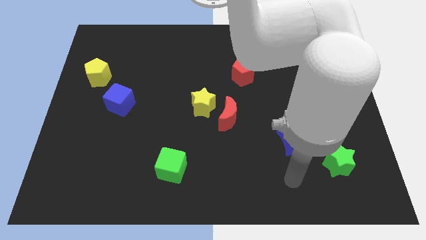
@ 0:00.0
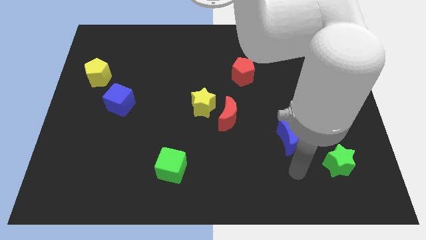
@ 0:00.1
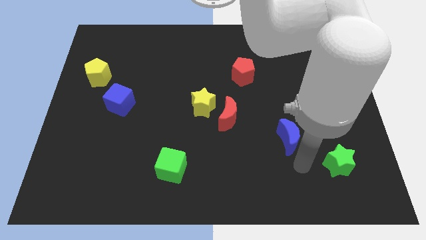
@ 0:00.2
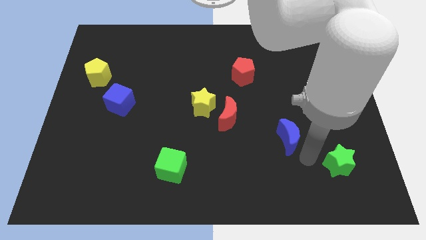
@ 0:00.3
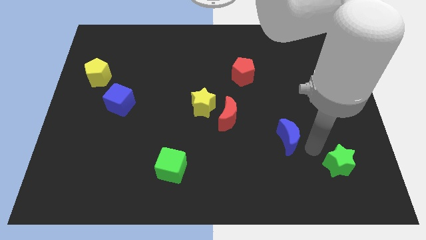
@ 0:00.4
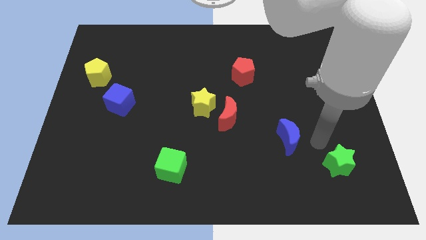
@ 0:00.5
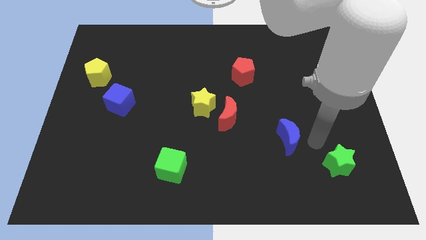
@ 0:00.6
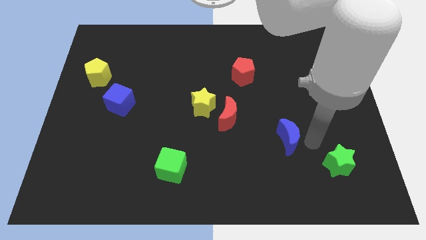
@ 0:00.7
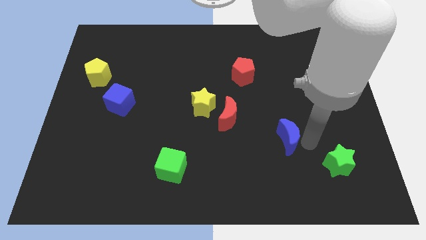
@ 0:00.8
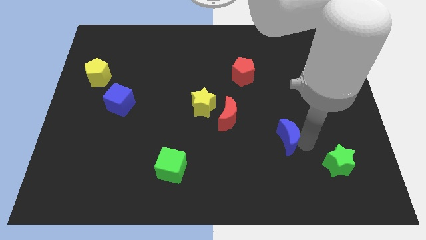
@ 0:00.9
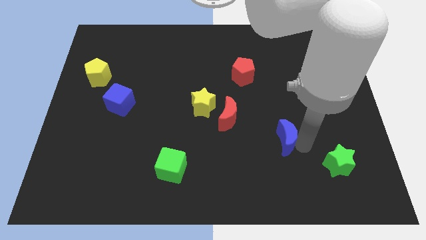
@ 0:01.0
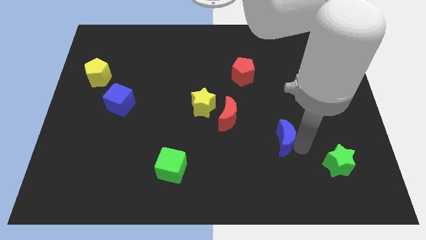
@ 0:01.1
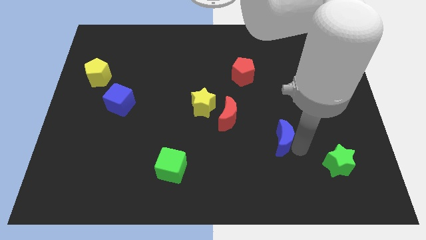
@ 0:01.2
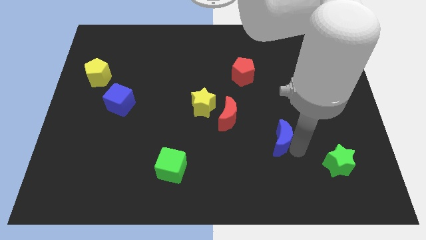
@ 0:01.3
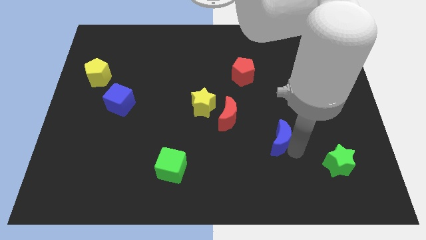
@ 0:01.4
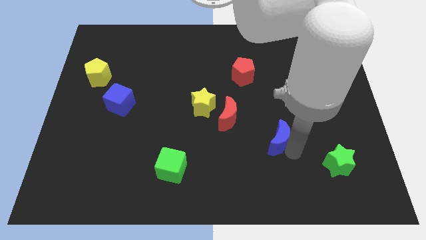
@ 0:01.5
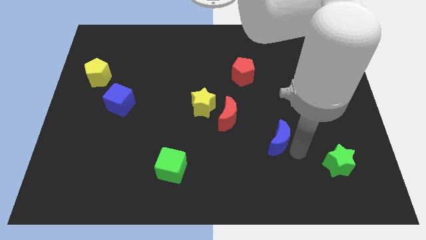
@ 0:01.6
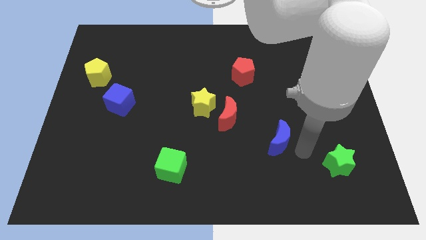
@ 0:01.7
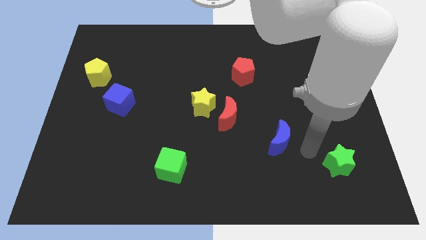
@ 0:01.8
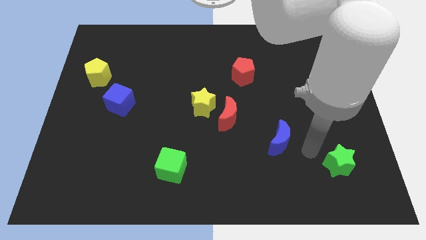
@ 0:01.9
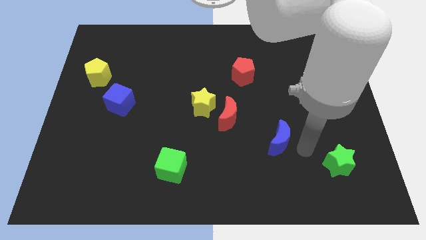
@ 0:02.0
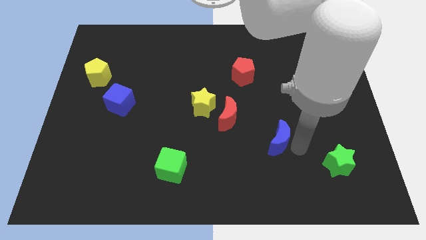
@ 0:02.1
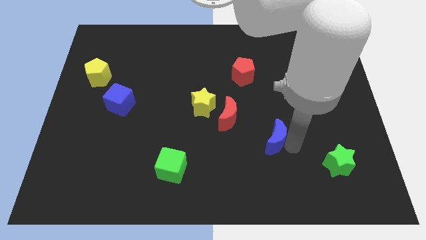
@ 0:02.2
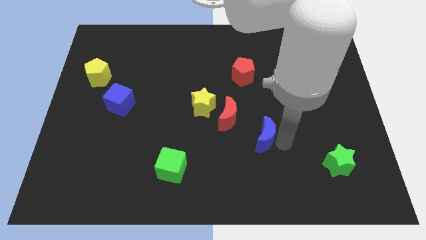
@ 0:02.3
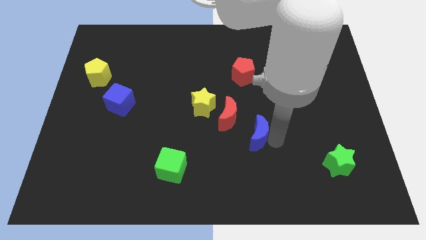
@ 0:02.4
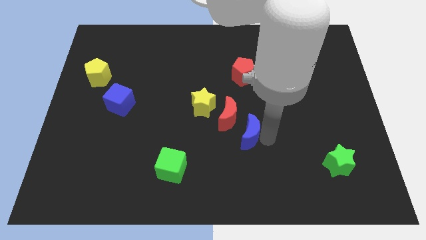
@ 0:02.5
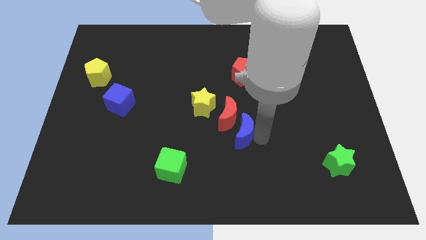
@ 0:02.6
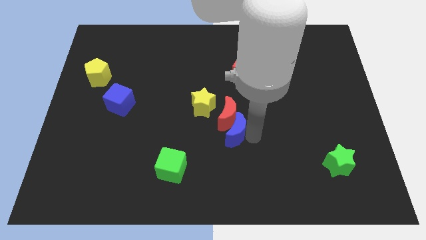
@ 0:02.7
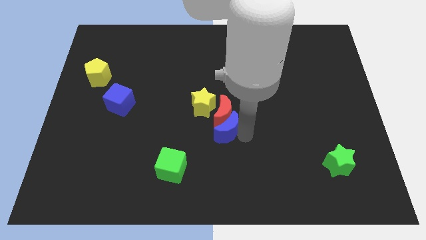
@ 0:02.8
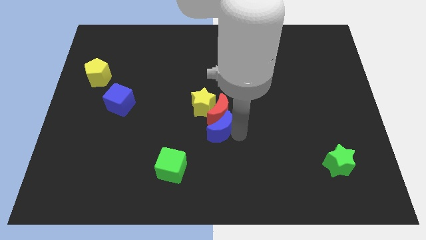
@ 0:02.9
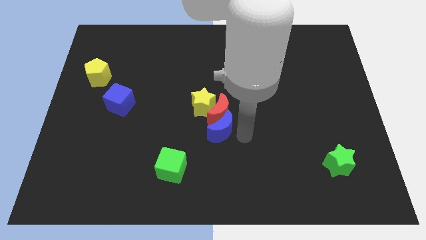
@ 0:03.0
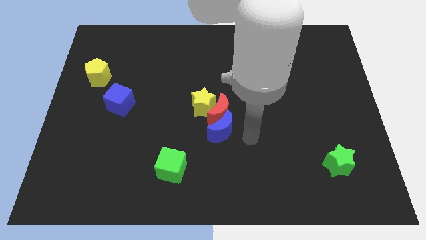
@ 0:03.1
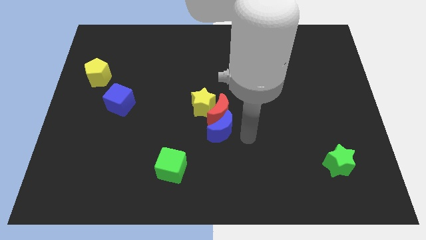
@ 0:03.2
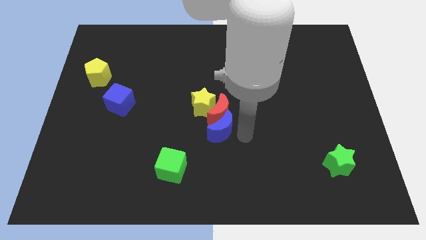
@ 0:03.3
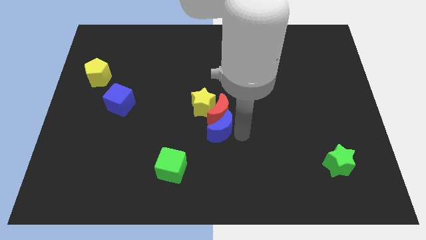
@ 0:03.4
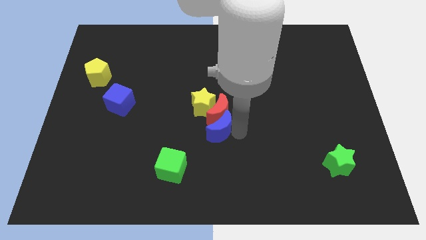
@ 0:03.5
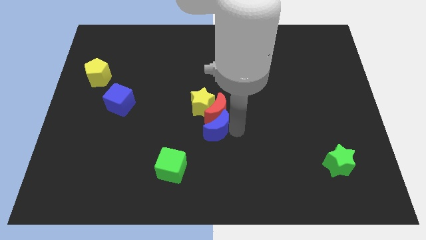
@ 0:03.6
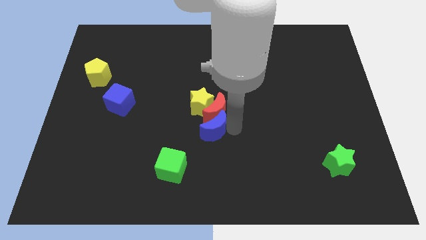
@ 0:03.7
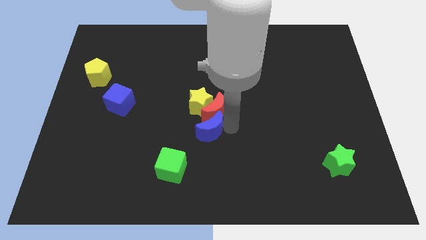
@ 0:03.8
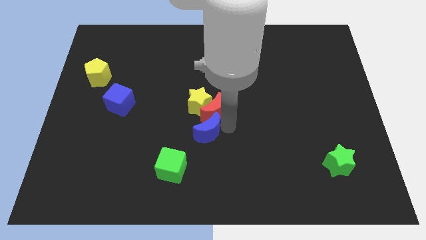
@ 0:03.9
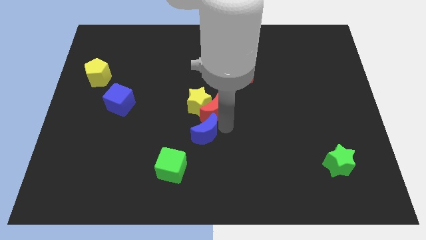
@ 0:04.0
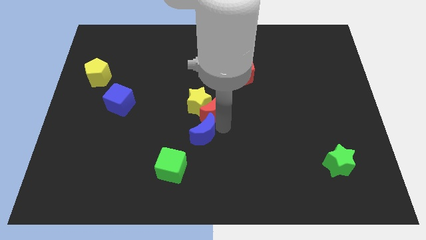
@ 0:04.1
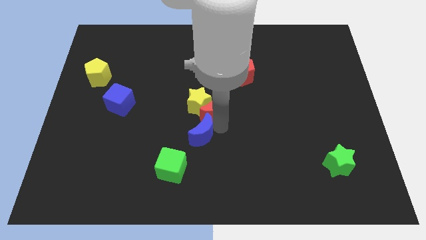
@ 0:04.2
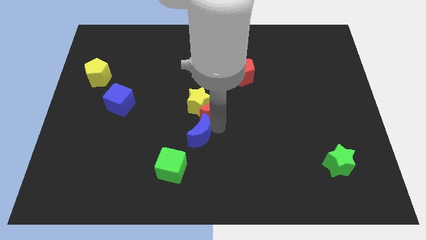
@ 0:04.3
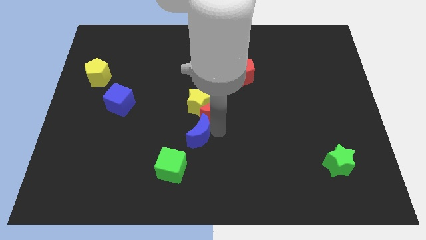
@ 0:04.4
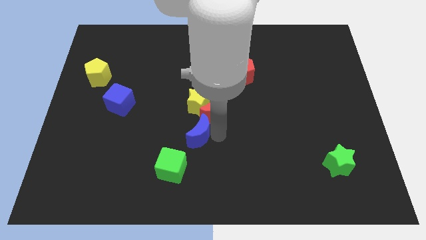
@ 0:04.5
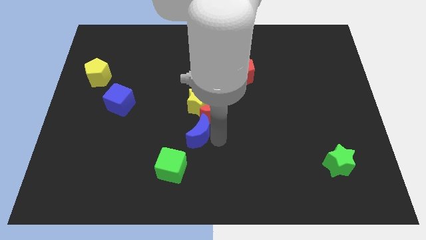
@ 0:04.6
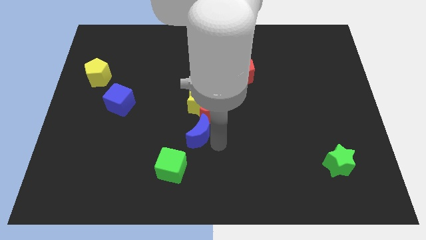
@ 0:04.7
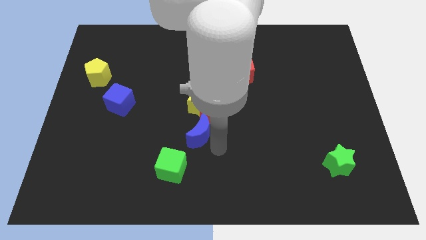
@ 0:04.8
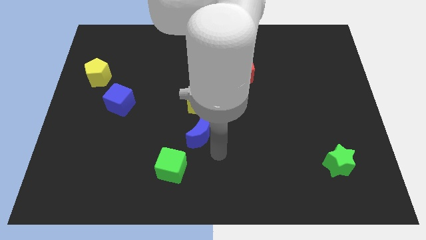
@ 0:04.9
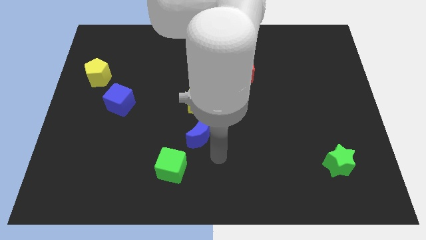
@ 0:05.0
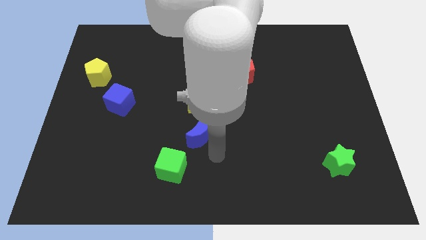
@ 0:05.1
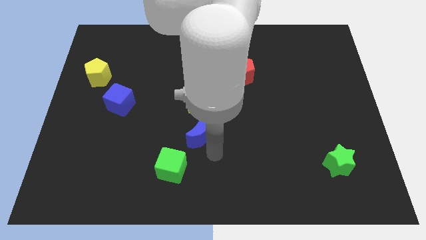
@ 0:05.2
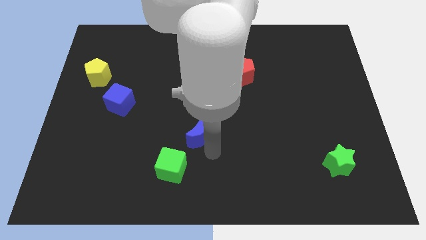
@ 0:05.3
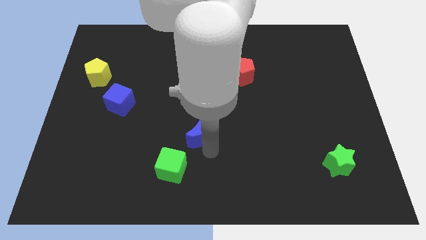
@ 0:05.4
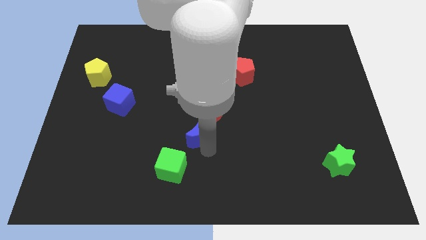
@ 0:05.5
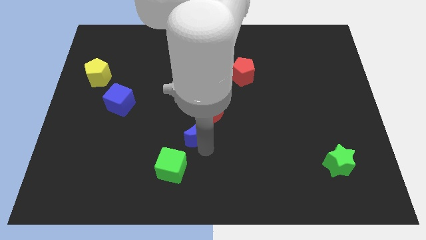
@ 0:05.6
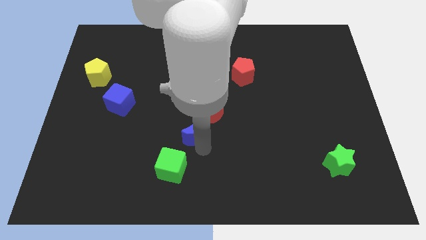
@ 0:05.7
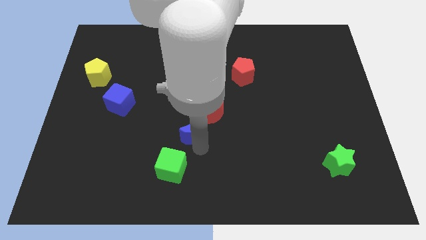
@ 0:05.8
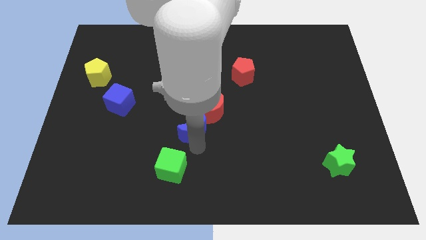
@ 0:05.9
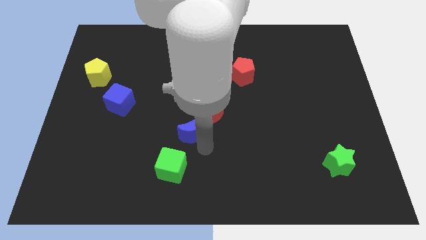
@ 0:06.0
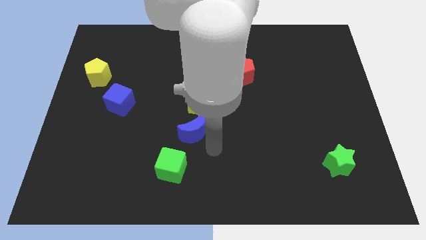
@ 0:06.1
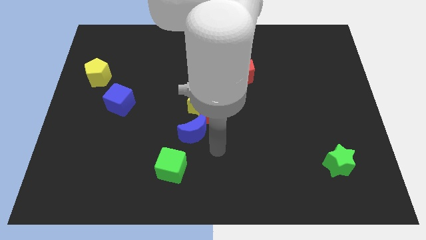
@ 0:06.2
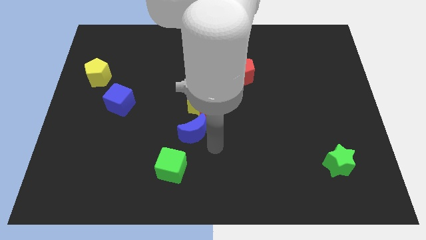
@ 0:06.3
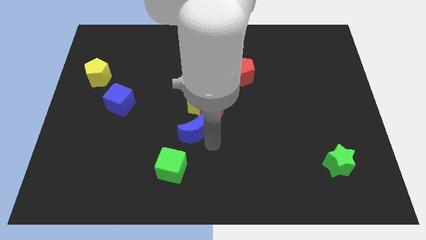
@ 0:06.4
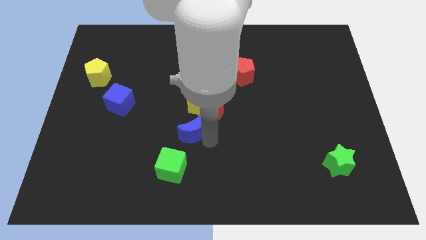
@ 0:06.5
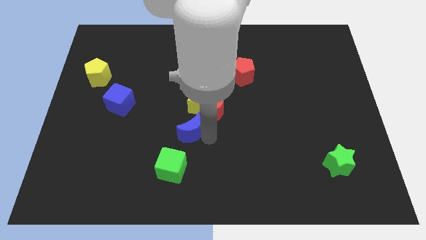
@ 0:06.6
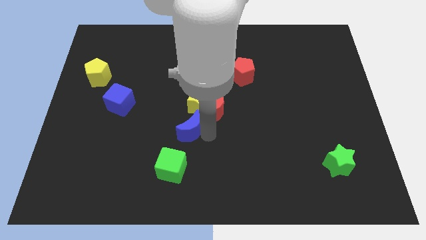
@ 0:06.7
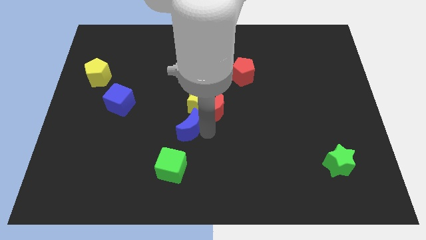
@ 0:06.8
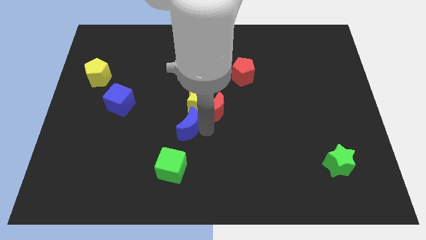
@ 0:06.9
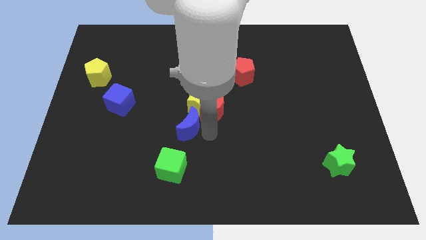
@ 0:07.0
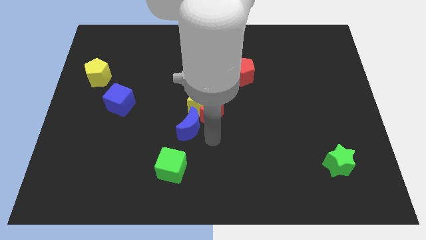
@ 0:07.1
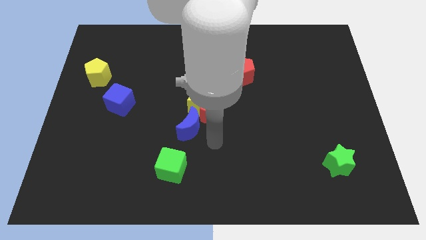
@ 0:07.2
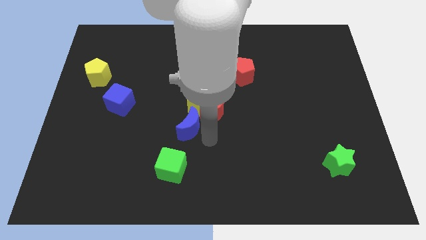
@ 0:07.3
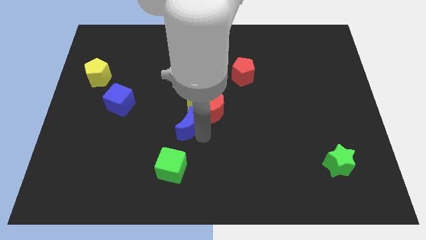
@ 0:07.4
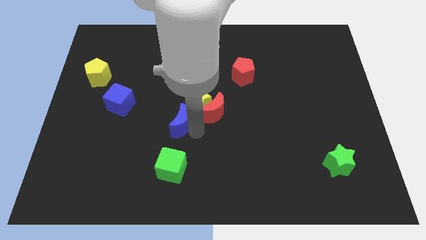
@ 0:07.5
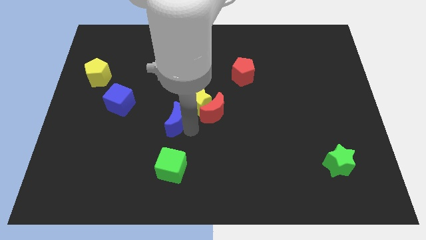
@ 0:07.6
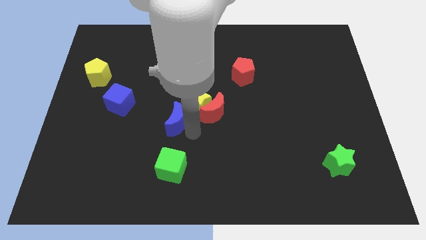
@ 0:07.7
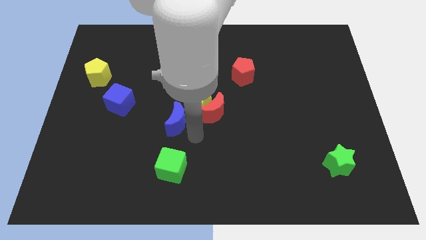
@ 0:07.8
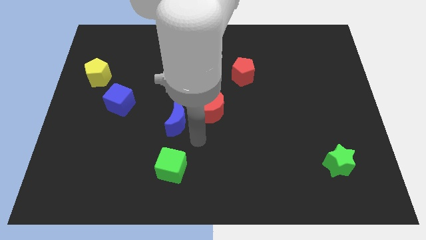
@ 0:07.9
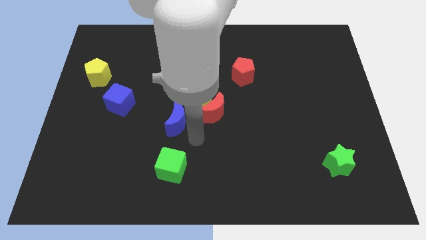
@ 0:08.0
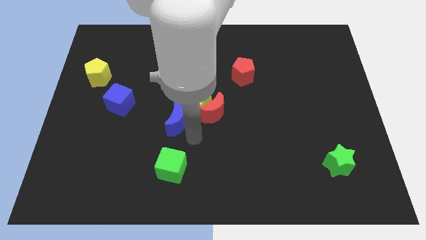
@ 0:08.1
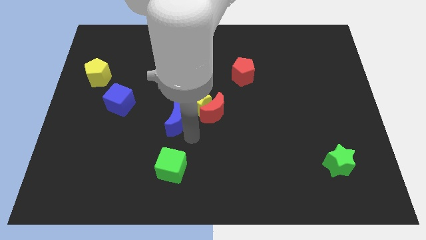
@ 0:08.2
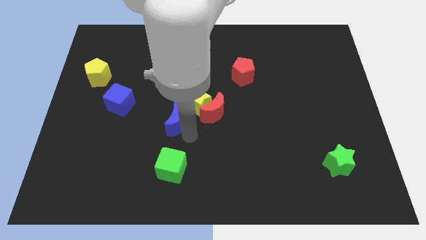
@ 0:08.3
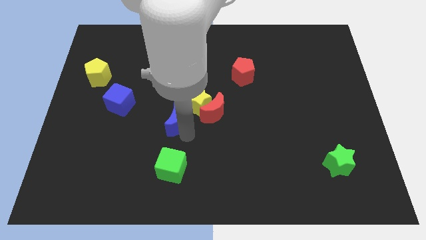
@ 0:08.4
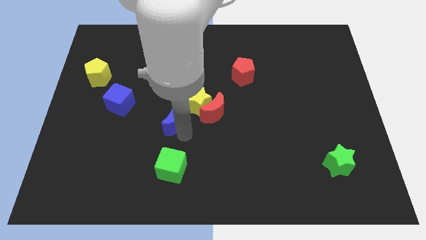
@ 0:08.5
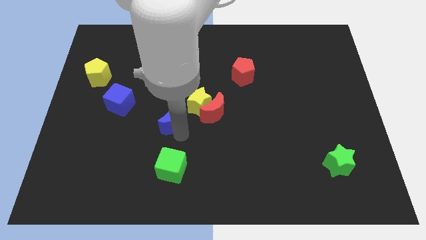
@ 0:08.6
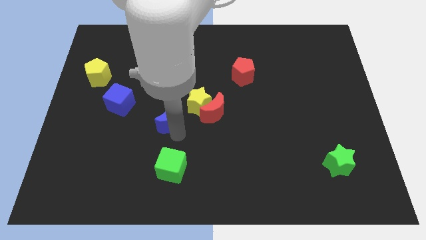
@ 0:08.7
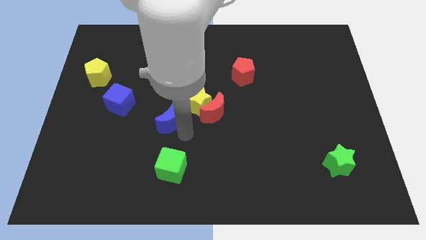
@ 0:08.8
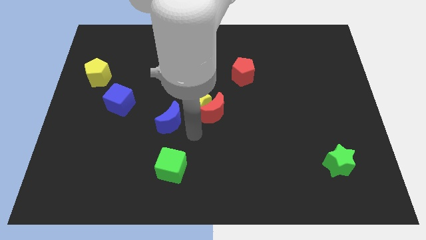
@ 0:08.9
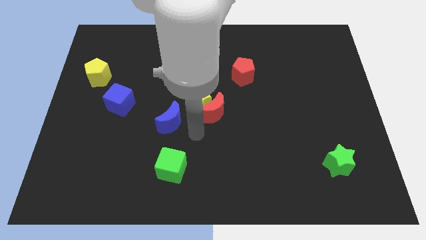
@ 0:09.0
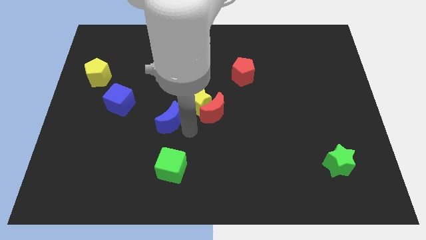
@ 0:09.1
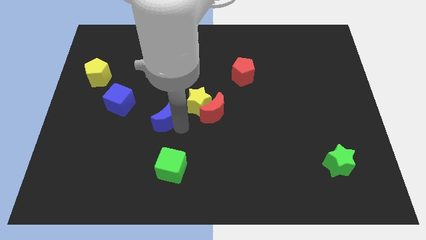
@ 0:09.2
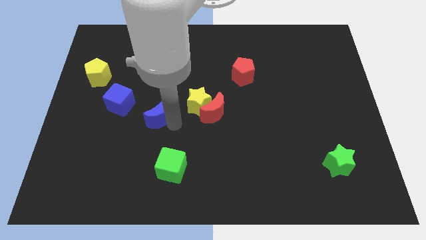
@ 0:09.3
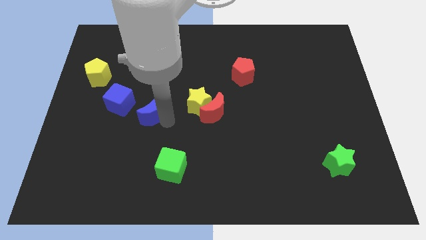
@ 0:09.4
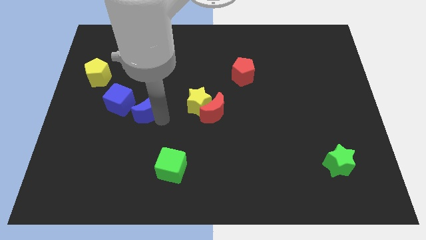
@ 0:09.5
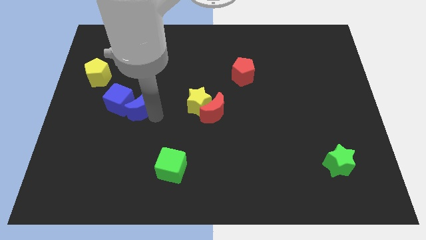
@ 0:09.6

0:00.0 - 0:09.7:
move the blue moon close to the blue cube
